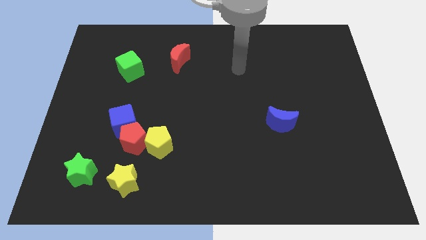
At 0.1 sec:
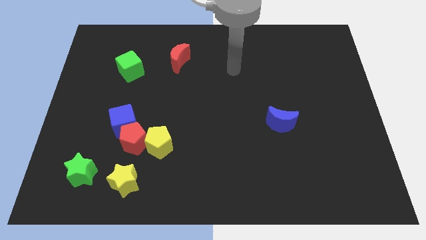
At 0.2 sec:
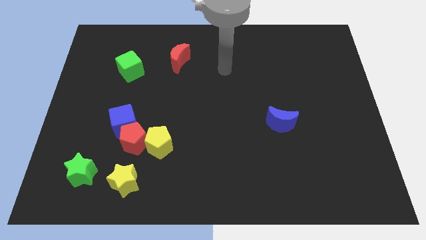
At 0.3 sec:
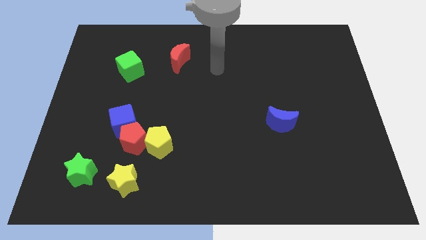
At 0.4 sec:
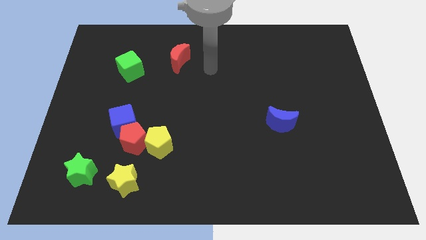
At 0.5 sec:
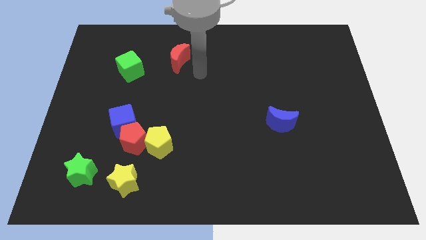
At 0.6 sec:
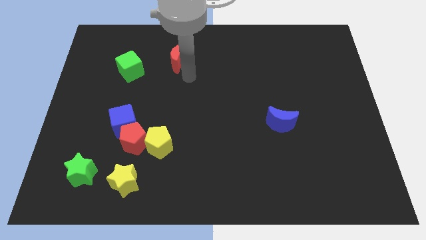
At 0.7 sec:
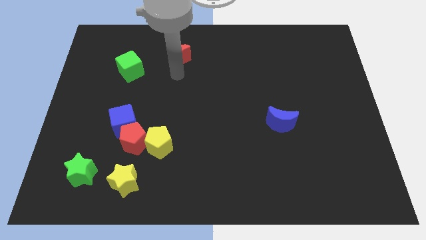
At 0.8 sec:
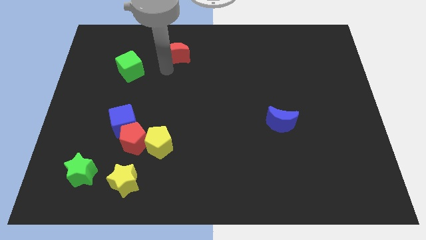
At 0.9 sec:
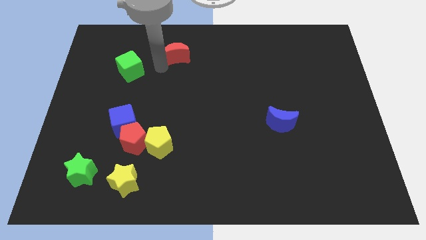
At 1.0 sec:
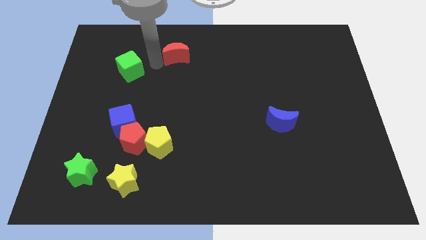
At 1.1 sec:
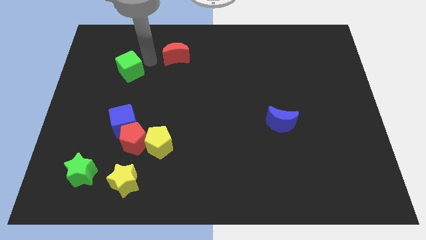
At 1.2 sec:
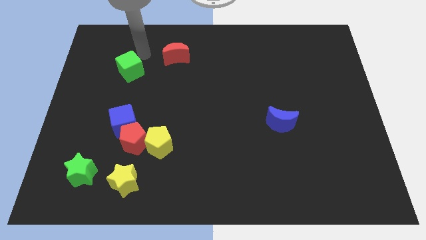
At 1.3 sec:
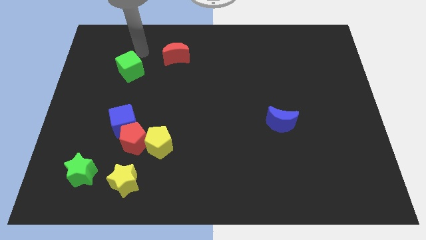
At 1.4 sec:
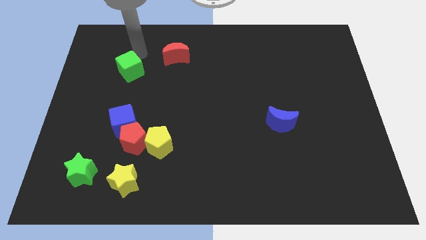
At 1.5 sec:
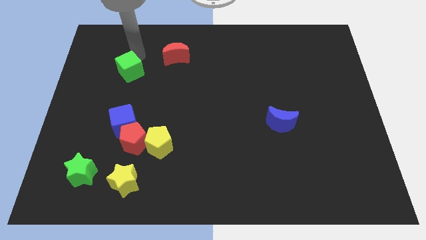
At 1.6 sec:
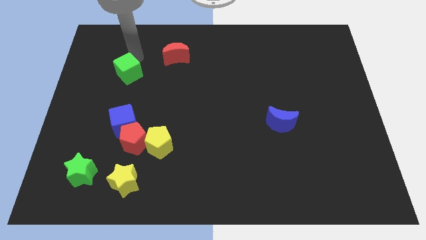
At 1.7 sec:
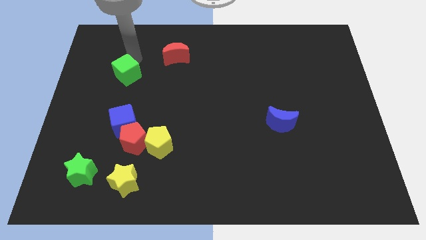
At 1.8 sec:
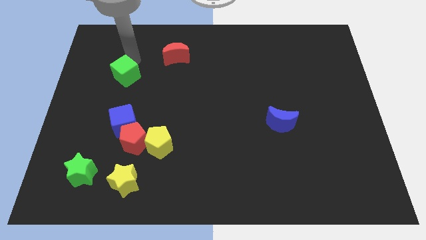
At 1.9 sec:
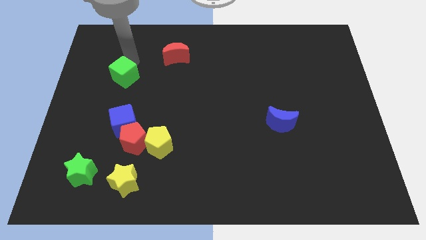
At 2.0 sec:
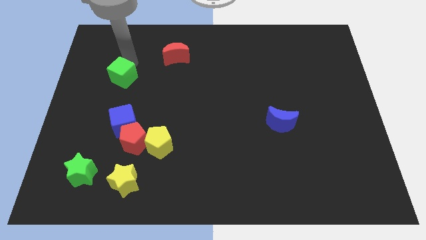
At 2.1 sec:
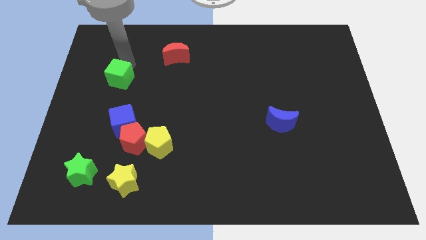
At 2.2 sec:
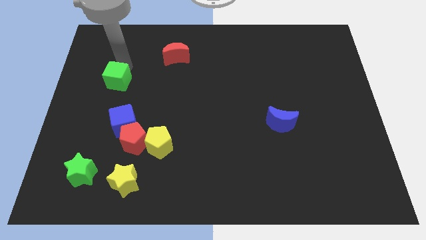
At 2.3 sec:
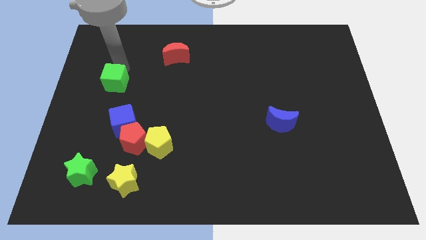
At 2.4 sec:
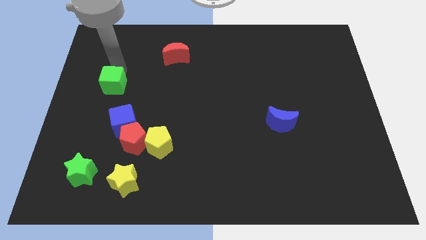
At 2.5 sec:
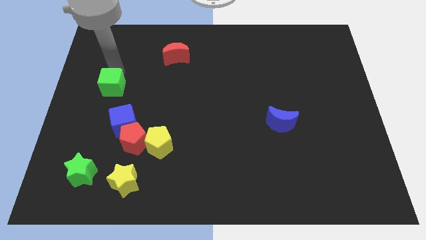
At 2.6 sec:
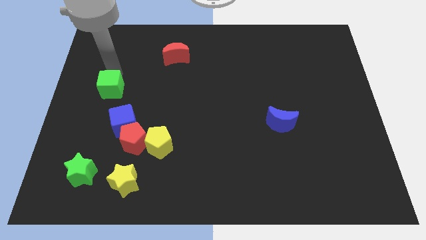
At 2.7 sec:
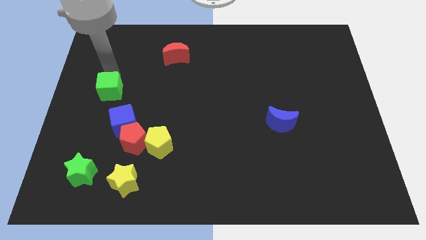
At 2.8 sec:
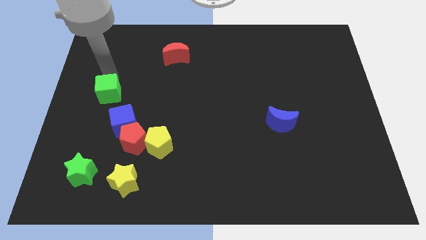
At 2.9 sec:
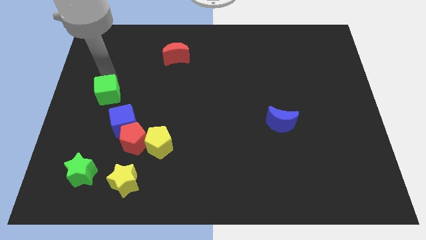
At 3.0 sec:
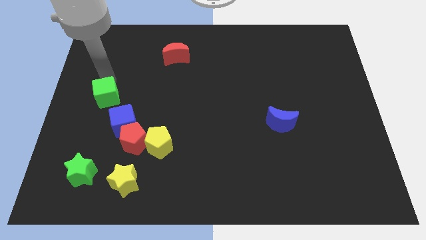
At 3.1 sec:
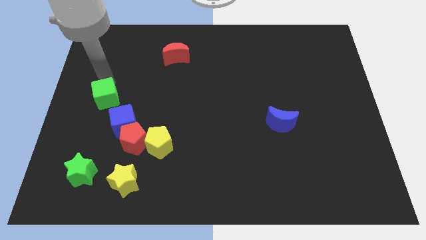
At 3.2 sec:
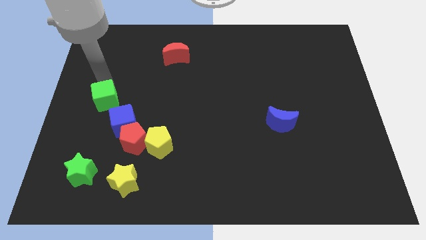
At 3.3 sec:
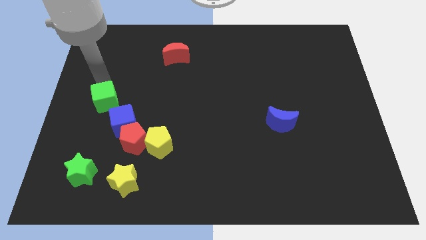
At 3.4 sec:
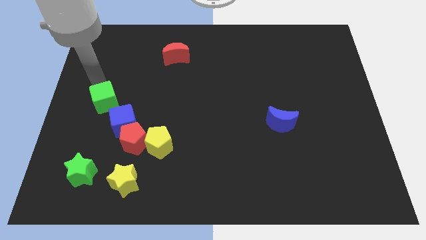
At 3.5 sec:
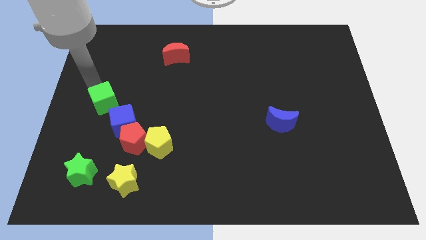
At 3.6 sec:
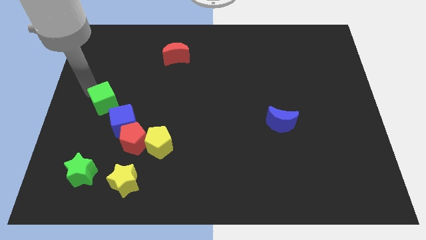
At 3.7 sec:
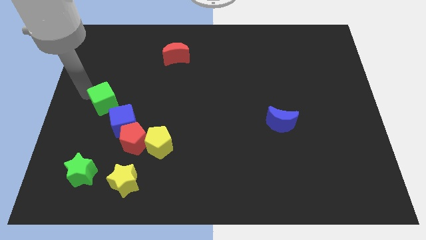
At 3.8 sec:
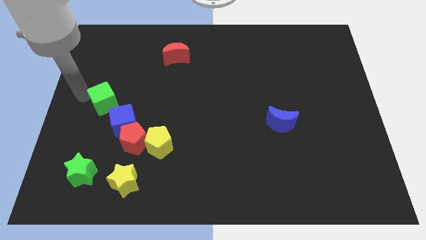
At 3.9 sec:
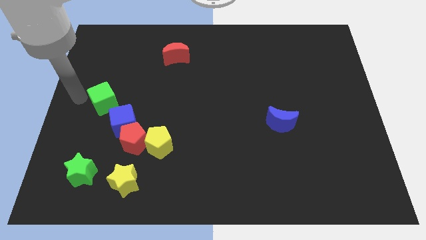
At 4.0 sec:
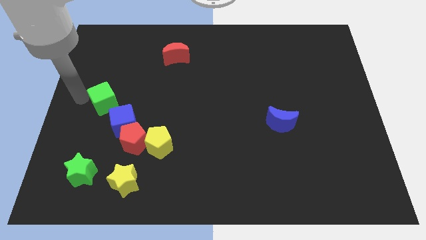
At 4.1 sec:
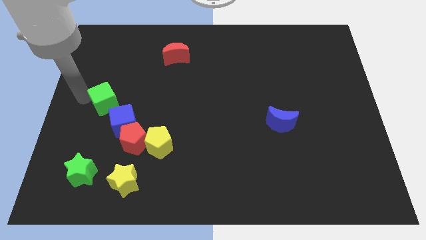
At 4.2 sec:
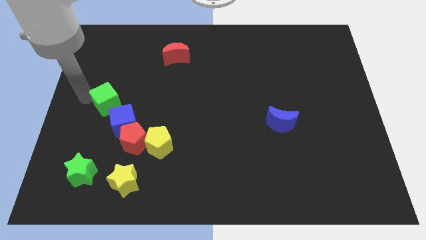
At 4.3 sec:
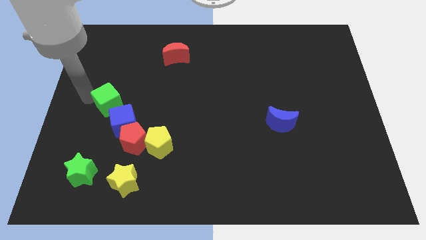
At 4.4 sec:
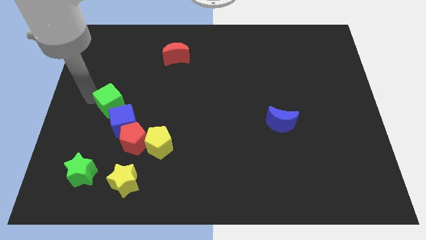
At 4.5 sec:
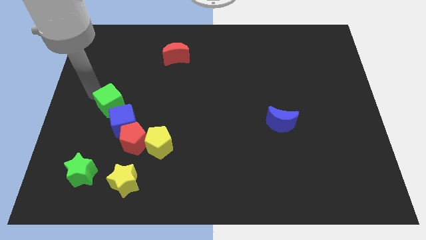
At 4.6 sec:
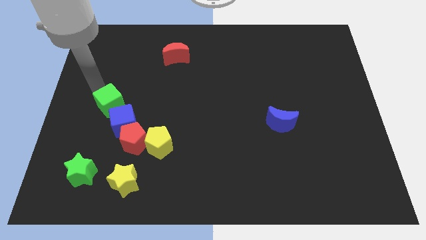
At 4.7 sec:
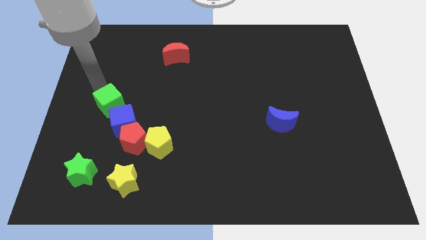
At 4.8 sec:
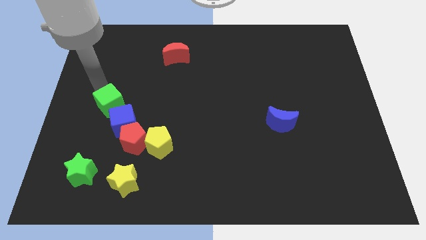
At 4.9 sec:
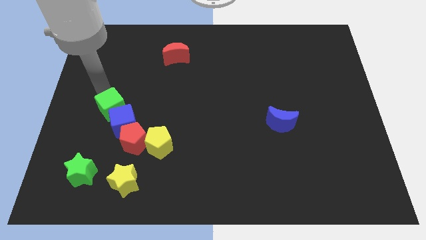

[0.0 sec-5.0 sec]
put the green cube close to the blue cube

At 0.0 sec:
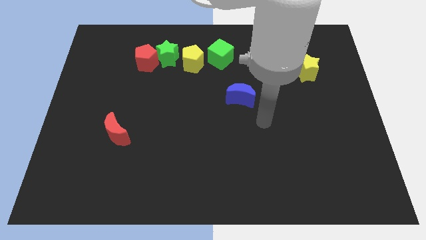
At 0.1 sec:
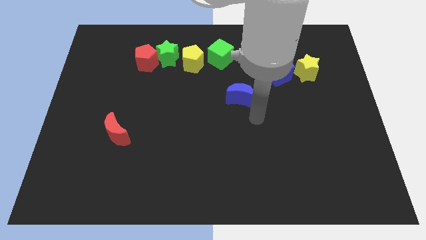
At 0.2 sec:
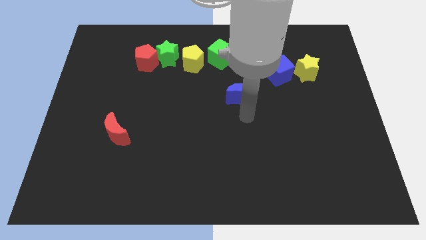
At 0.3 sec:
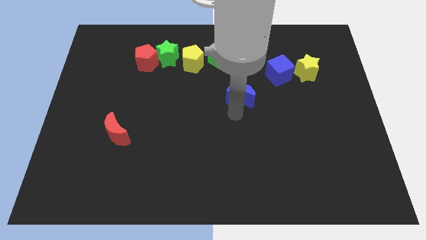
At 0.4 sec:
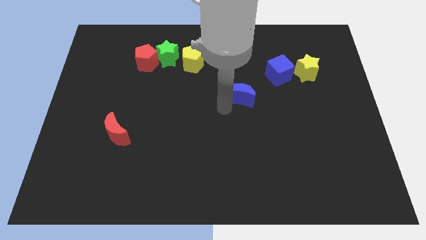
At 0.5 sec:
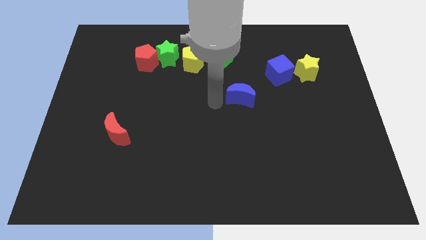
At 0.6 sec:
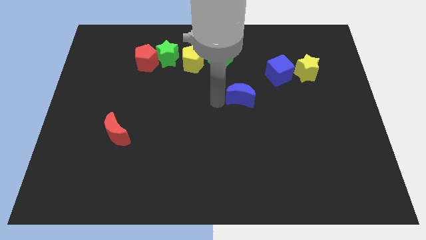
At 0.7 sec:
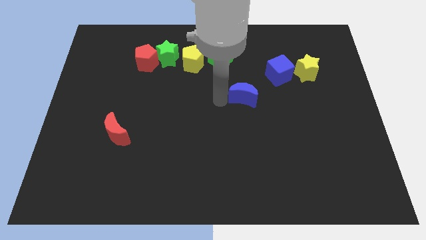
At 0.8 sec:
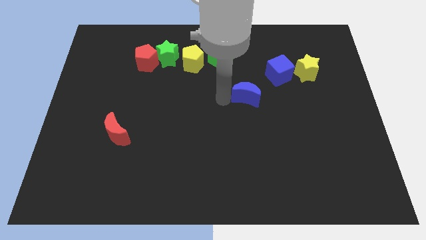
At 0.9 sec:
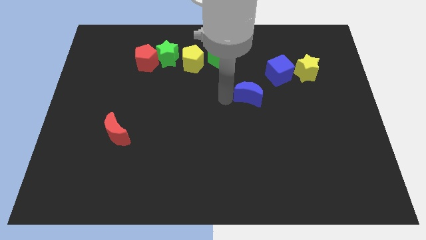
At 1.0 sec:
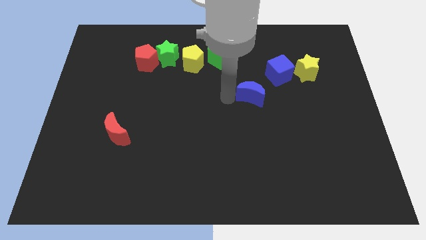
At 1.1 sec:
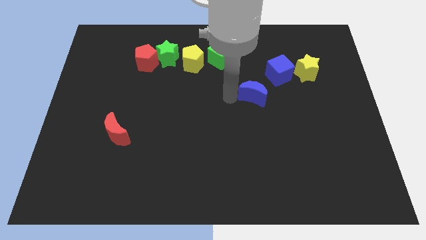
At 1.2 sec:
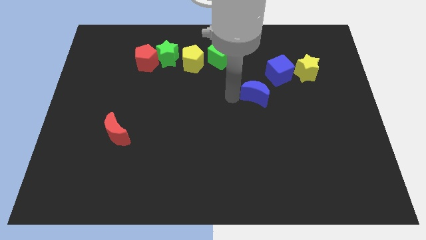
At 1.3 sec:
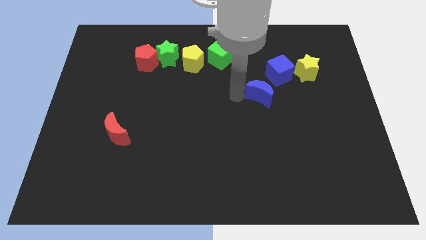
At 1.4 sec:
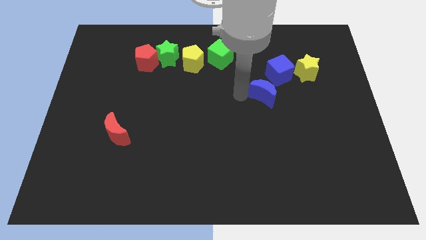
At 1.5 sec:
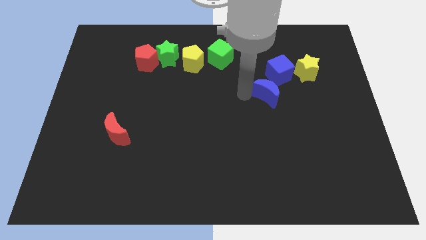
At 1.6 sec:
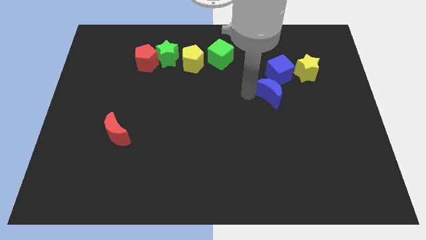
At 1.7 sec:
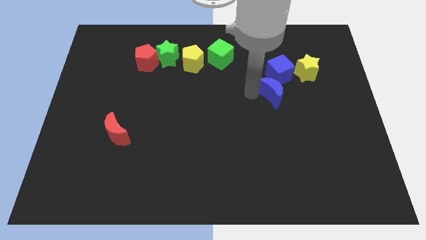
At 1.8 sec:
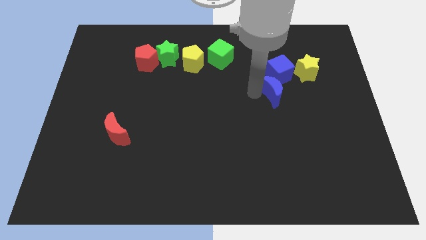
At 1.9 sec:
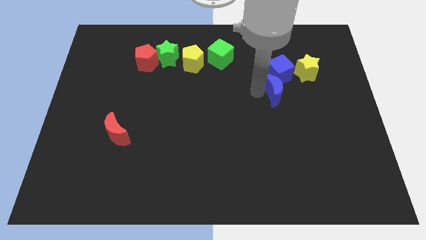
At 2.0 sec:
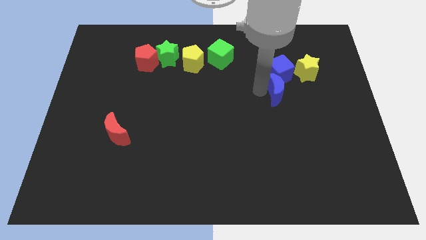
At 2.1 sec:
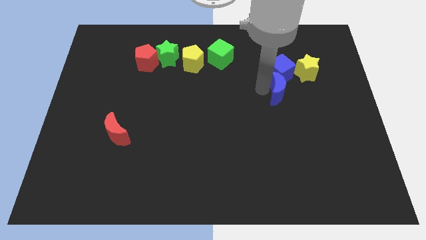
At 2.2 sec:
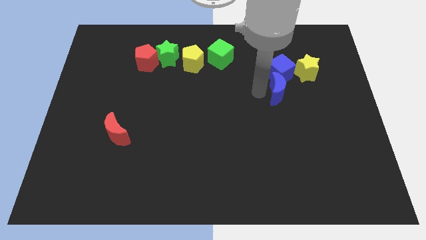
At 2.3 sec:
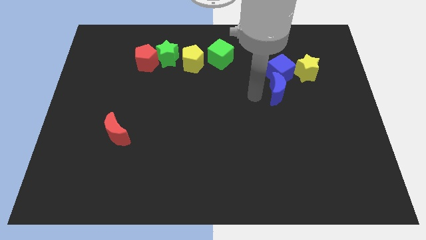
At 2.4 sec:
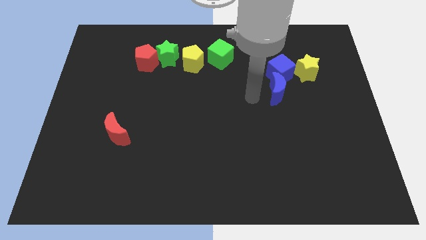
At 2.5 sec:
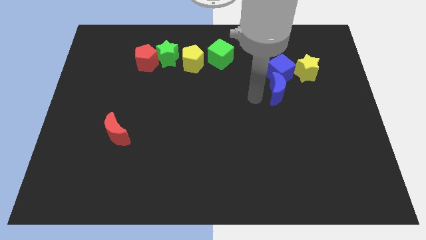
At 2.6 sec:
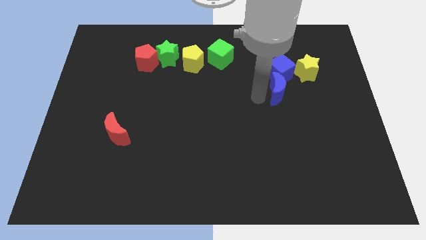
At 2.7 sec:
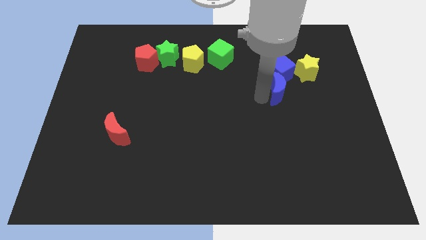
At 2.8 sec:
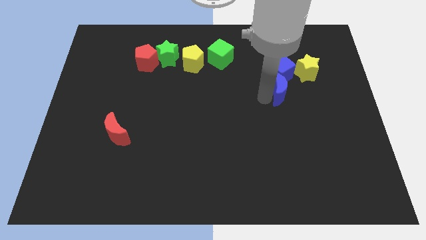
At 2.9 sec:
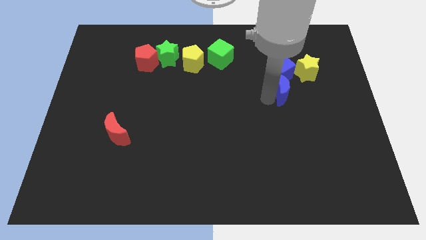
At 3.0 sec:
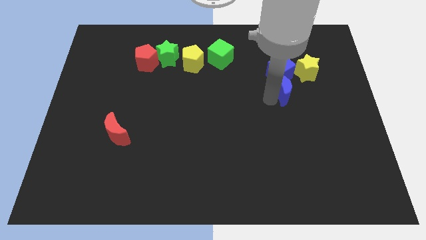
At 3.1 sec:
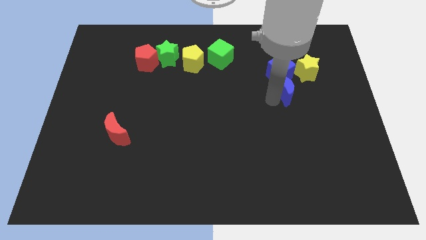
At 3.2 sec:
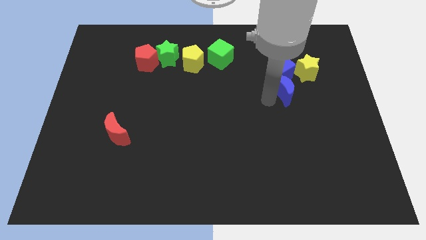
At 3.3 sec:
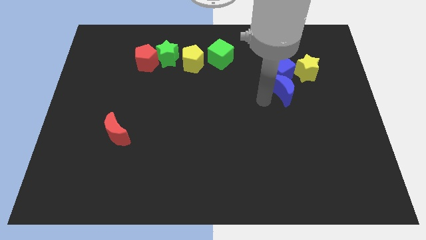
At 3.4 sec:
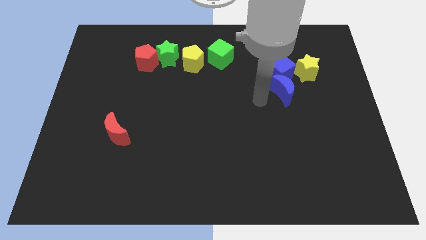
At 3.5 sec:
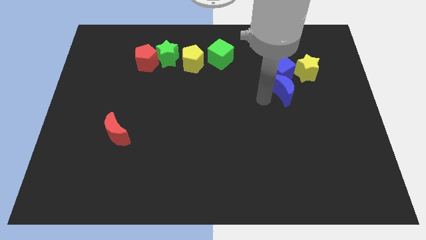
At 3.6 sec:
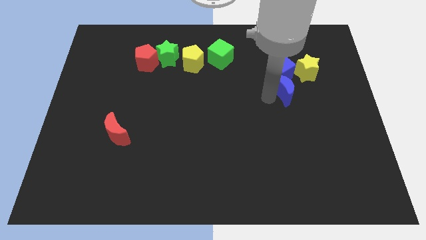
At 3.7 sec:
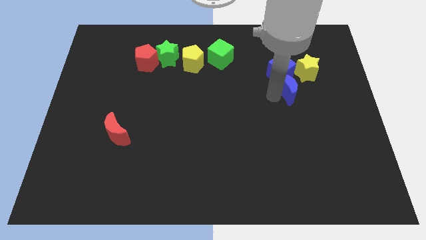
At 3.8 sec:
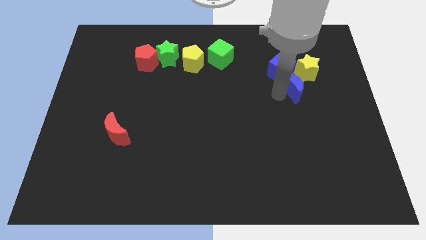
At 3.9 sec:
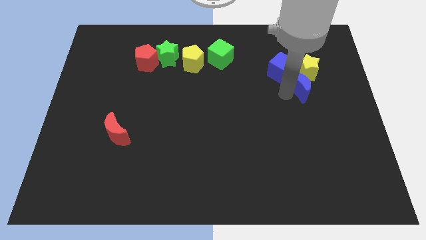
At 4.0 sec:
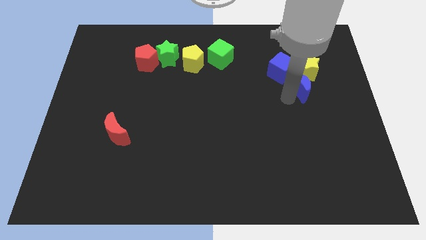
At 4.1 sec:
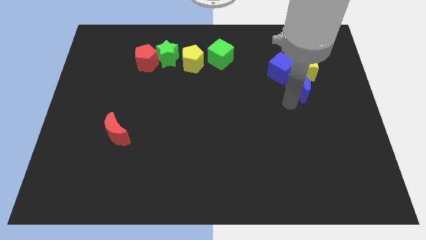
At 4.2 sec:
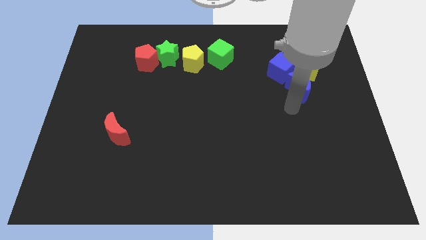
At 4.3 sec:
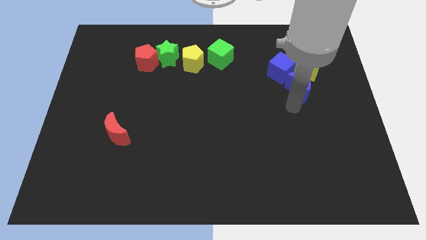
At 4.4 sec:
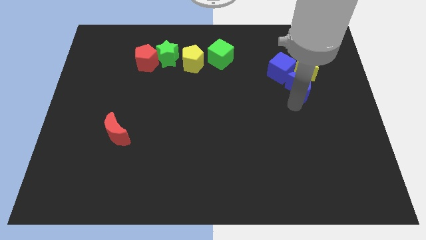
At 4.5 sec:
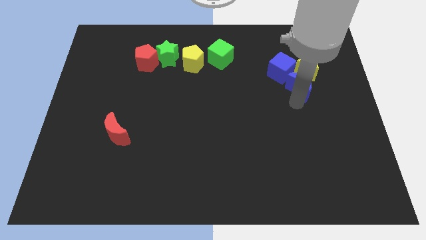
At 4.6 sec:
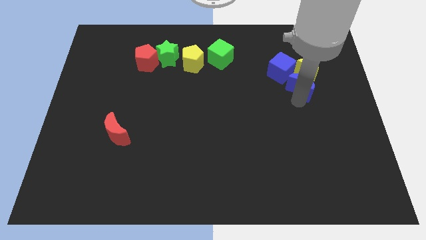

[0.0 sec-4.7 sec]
slide the blue moon close to the yellow star
